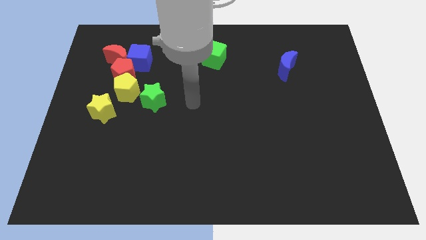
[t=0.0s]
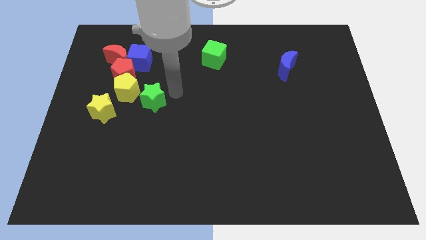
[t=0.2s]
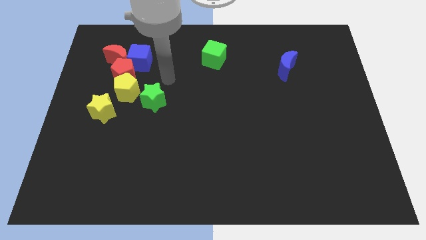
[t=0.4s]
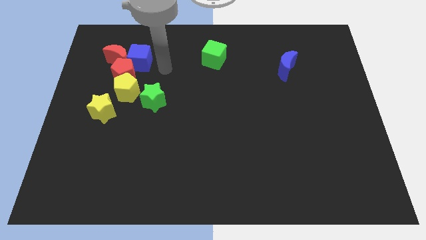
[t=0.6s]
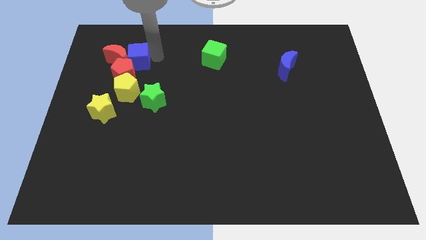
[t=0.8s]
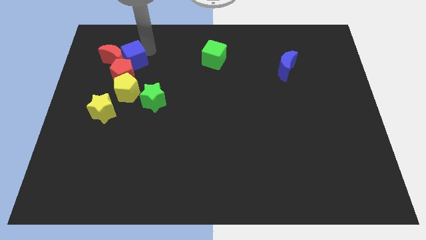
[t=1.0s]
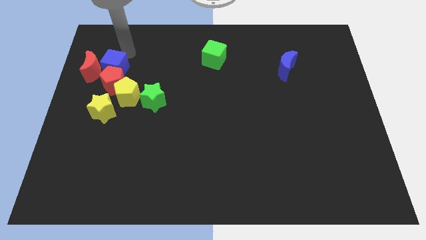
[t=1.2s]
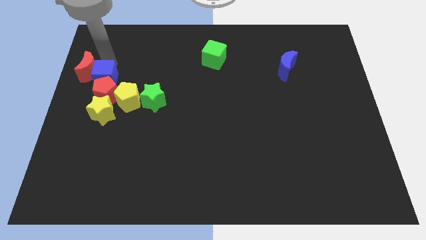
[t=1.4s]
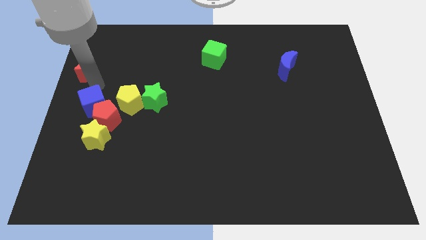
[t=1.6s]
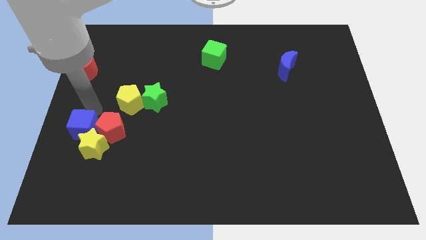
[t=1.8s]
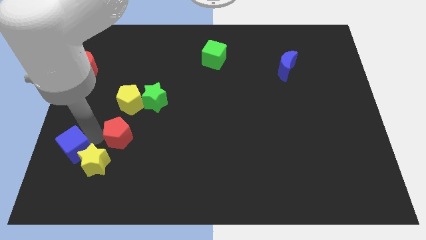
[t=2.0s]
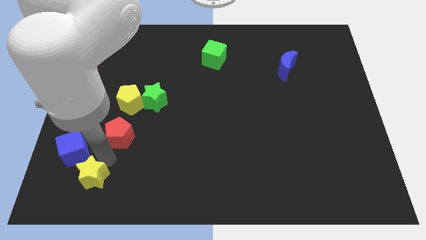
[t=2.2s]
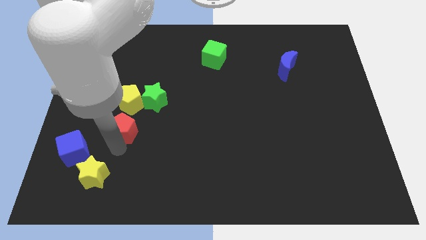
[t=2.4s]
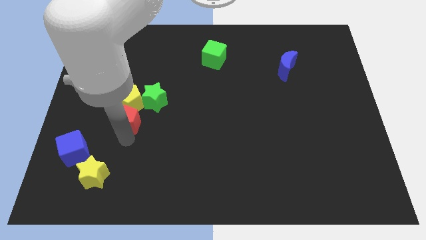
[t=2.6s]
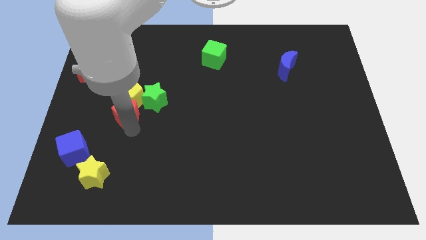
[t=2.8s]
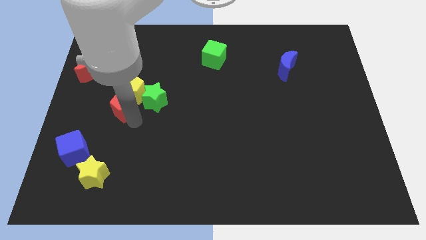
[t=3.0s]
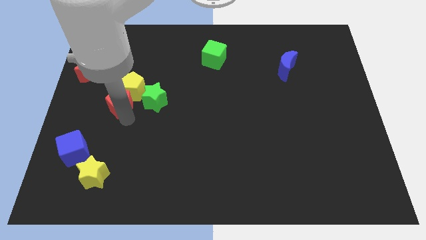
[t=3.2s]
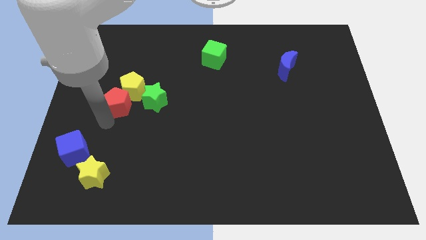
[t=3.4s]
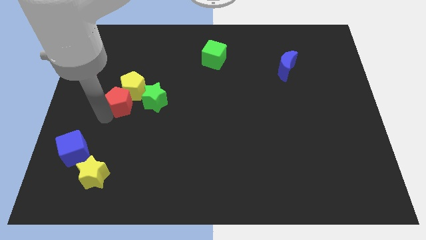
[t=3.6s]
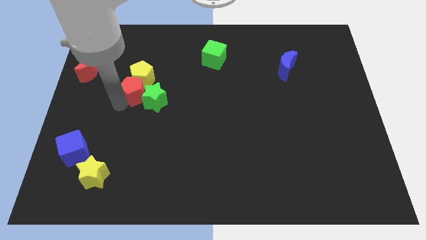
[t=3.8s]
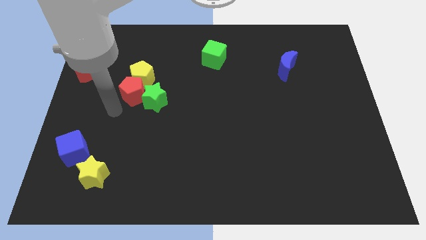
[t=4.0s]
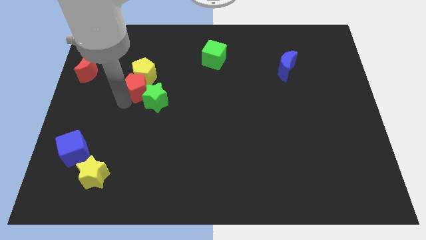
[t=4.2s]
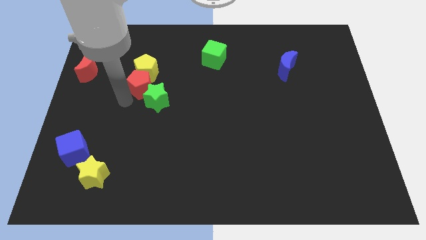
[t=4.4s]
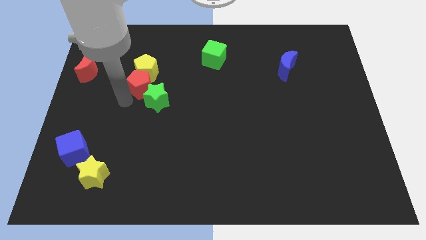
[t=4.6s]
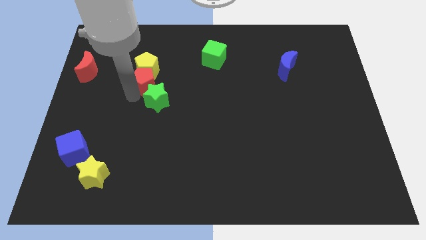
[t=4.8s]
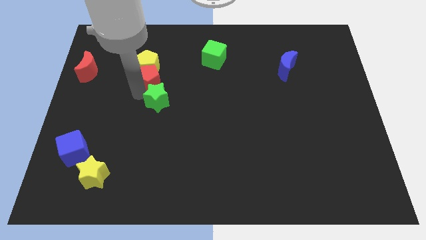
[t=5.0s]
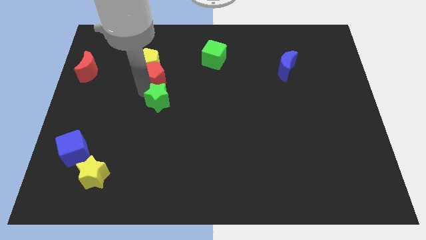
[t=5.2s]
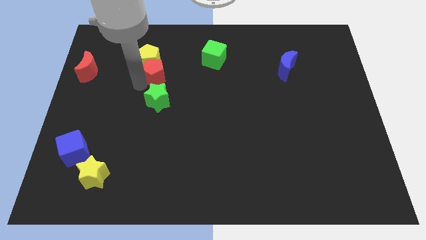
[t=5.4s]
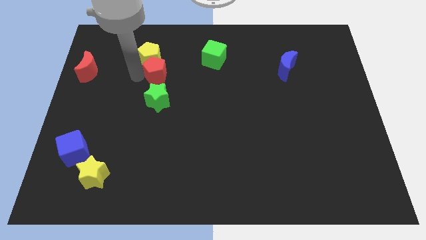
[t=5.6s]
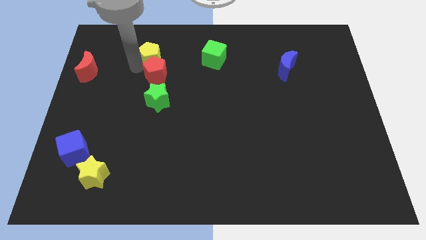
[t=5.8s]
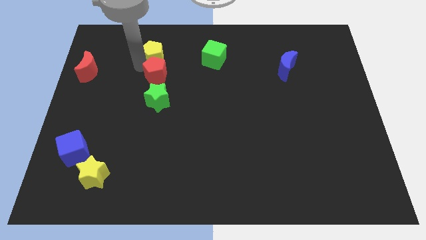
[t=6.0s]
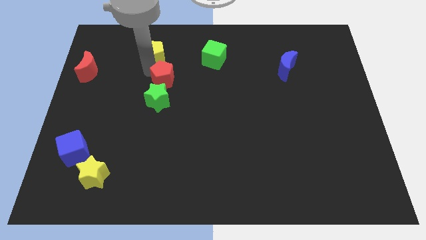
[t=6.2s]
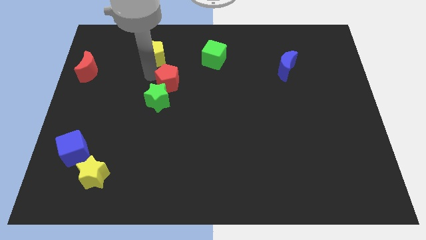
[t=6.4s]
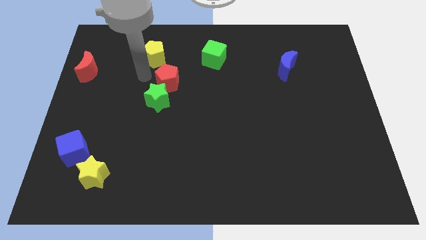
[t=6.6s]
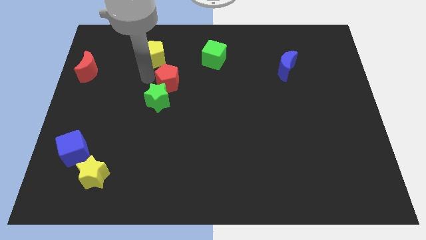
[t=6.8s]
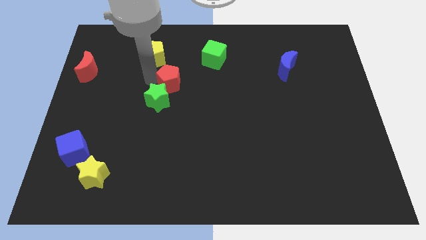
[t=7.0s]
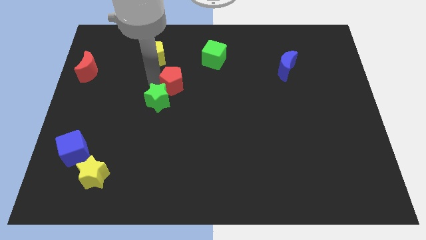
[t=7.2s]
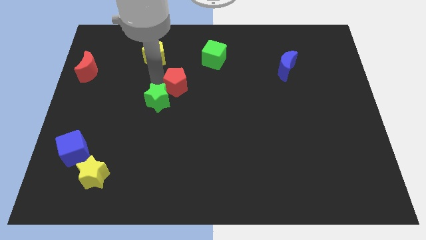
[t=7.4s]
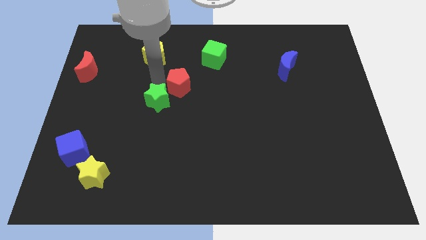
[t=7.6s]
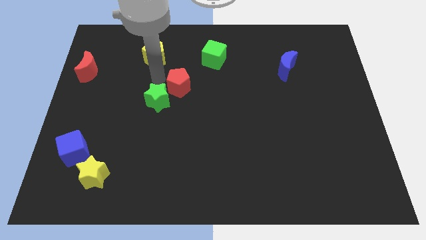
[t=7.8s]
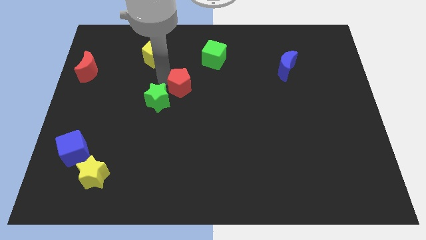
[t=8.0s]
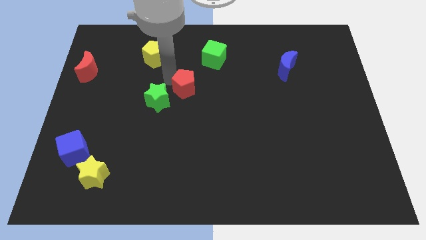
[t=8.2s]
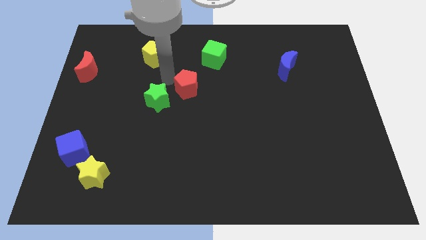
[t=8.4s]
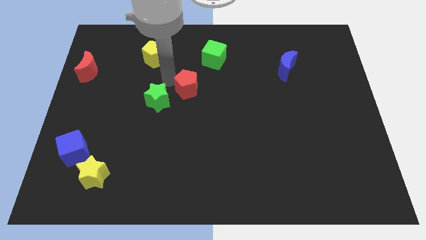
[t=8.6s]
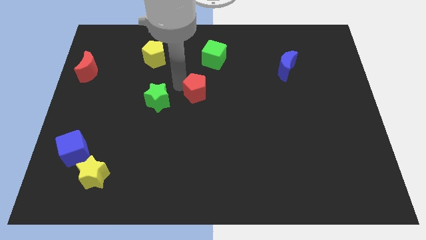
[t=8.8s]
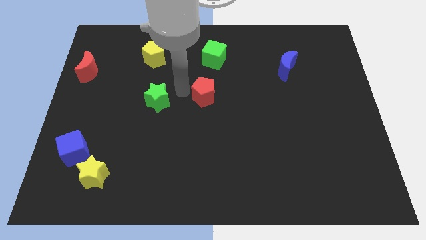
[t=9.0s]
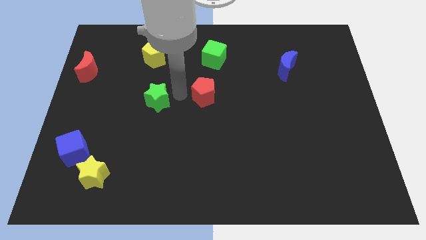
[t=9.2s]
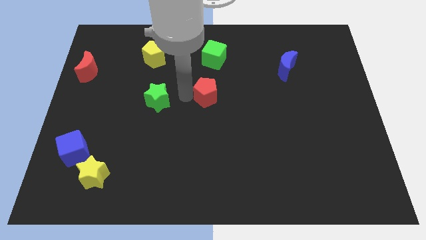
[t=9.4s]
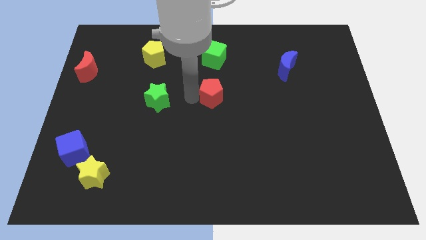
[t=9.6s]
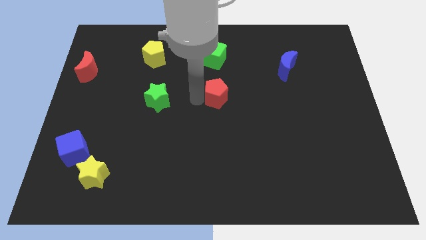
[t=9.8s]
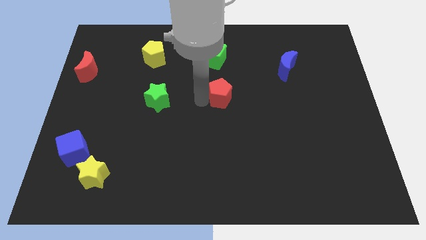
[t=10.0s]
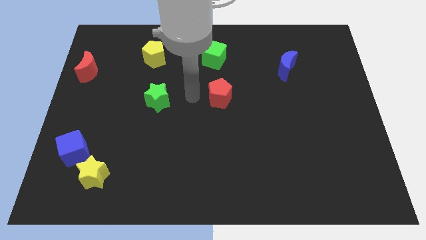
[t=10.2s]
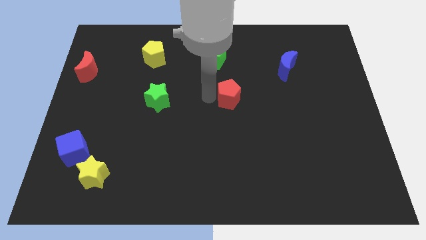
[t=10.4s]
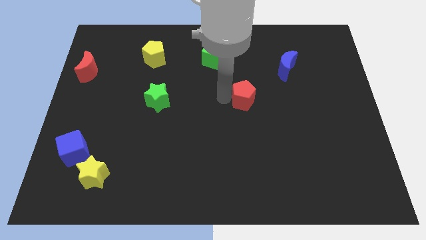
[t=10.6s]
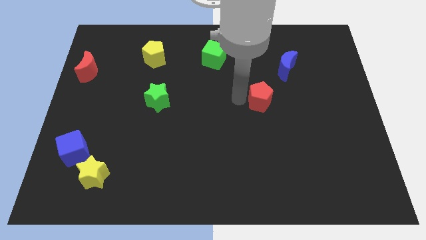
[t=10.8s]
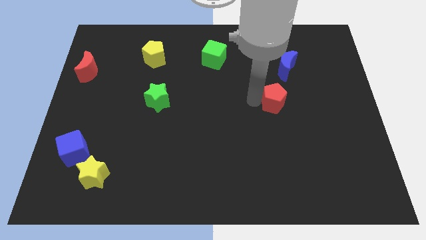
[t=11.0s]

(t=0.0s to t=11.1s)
slide the red pentagon below the blue moon

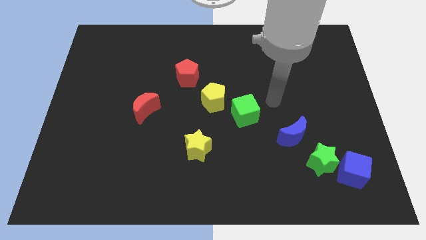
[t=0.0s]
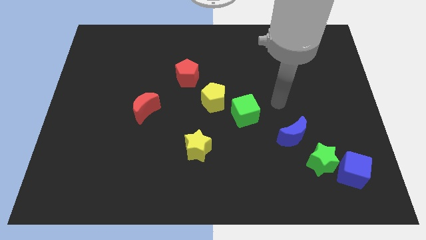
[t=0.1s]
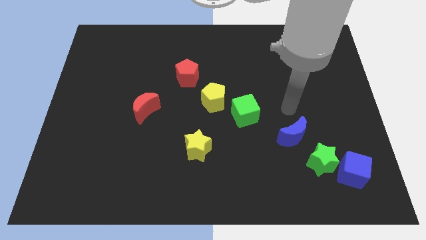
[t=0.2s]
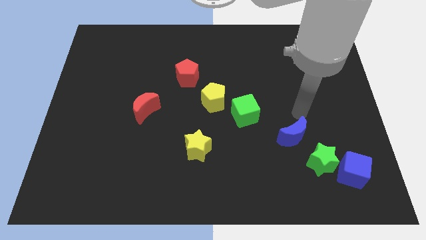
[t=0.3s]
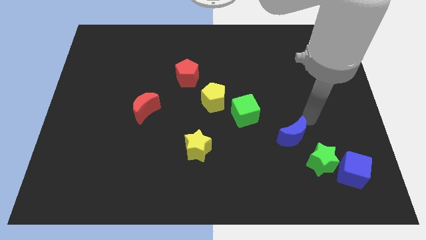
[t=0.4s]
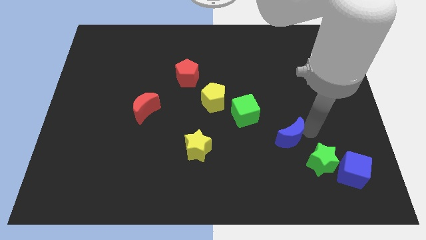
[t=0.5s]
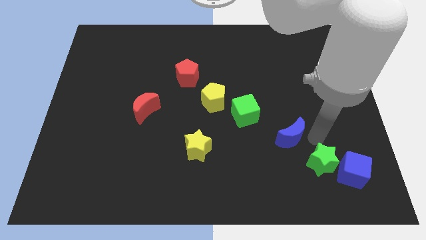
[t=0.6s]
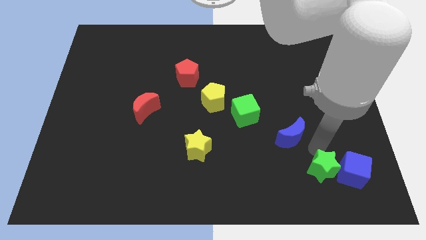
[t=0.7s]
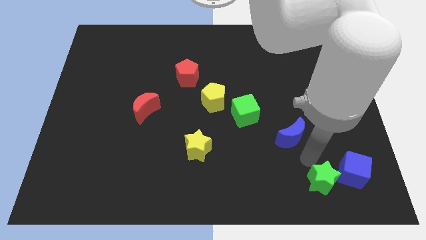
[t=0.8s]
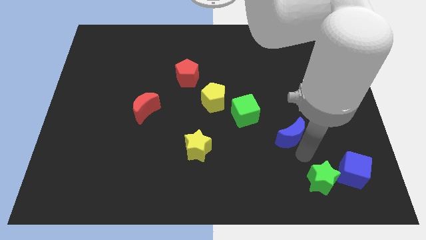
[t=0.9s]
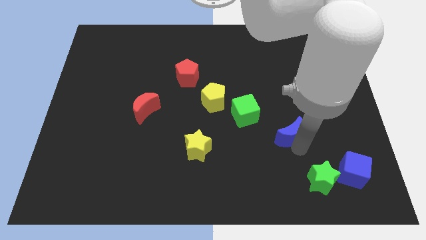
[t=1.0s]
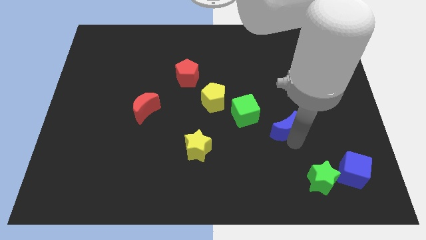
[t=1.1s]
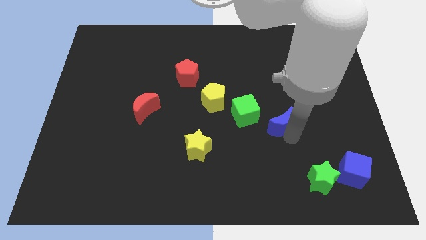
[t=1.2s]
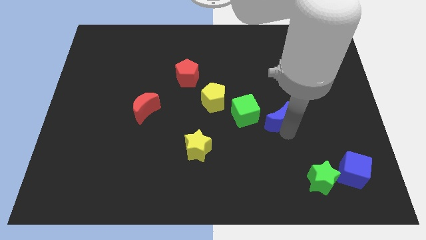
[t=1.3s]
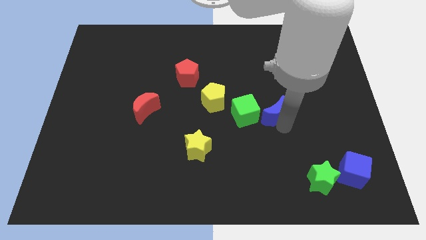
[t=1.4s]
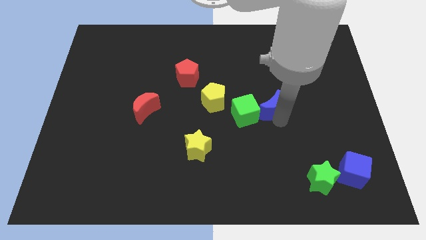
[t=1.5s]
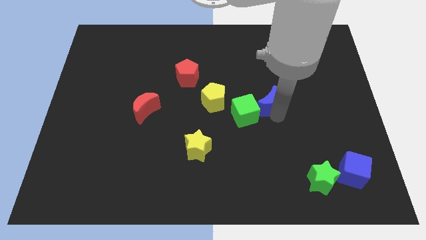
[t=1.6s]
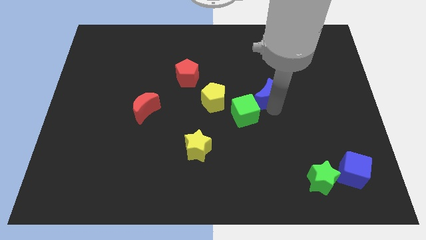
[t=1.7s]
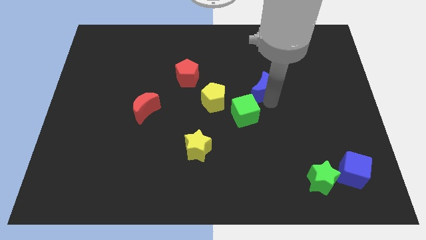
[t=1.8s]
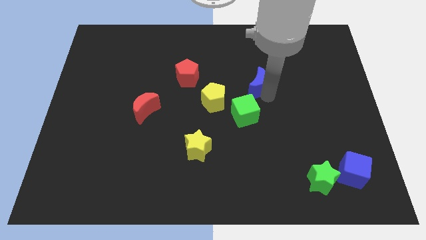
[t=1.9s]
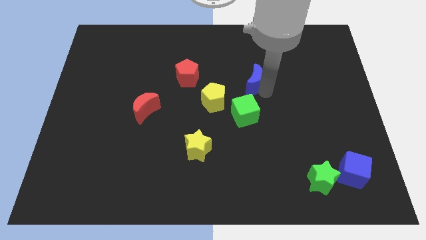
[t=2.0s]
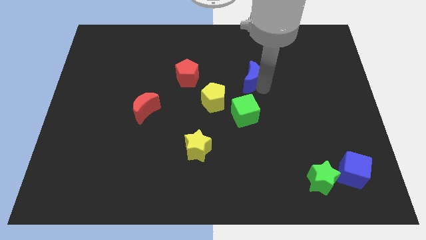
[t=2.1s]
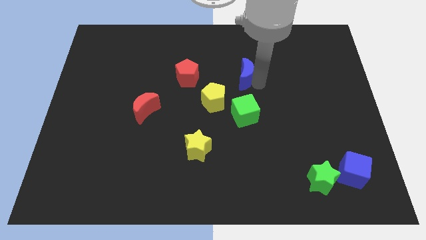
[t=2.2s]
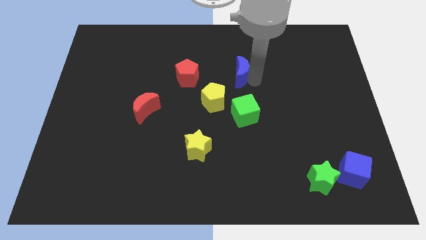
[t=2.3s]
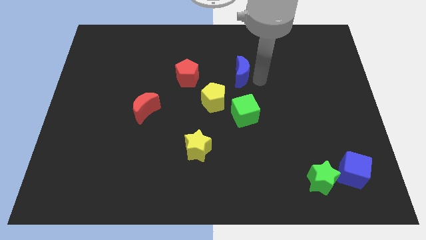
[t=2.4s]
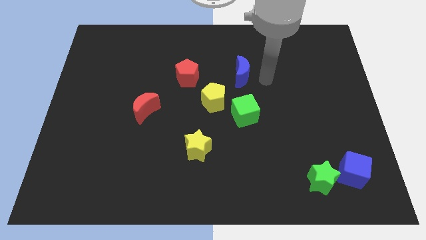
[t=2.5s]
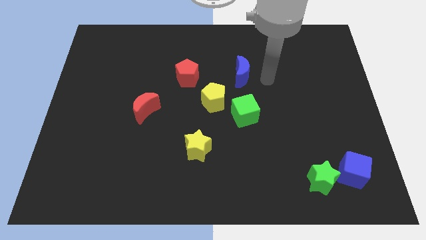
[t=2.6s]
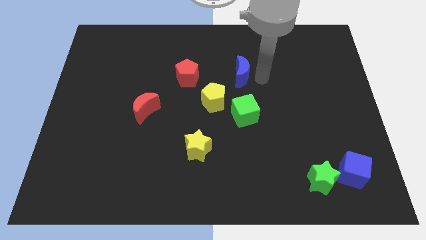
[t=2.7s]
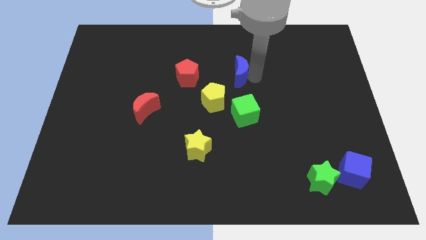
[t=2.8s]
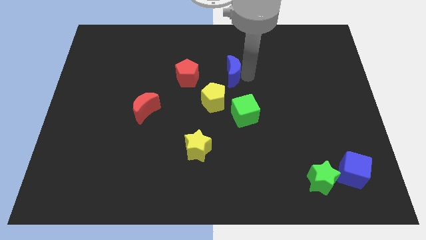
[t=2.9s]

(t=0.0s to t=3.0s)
push the blue moon above the yellow pentagon
